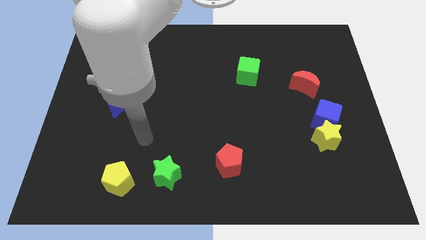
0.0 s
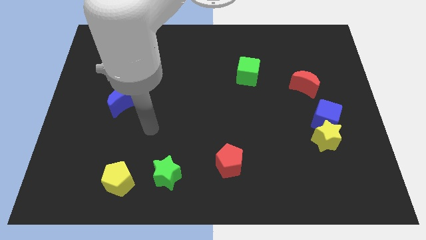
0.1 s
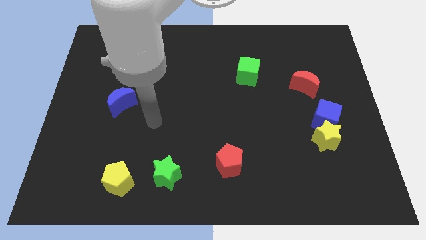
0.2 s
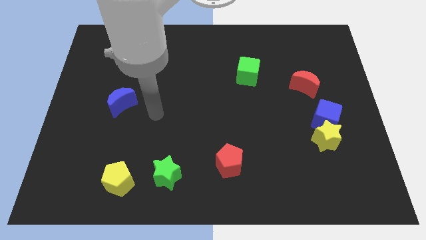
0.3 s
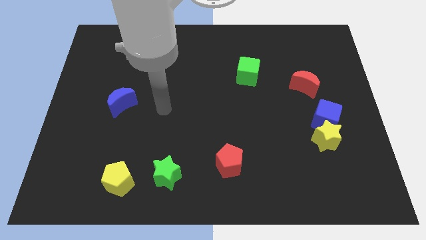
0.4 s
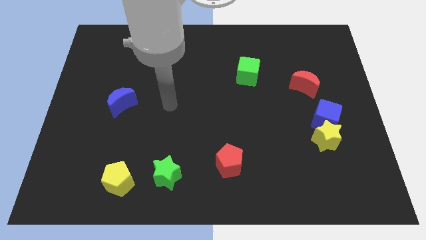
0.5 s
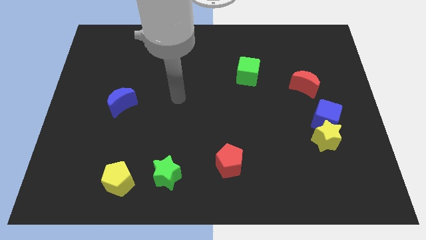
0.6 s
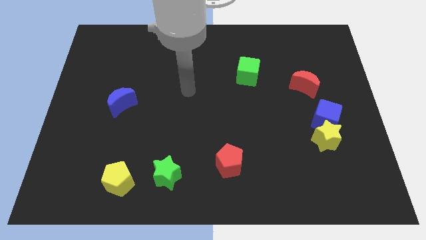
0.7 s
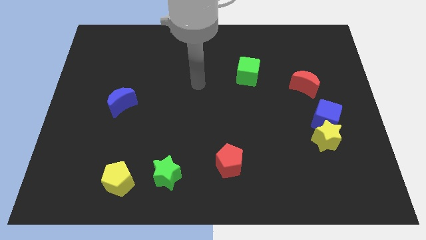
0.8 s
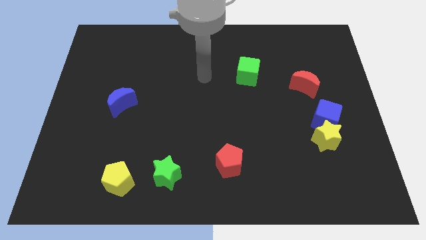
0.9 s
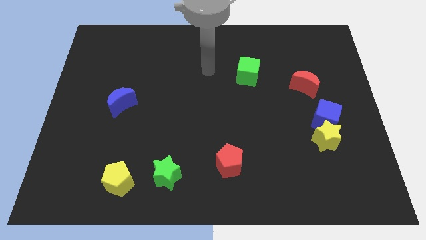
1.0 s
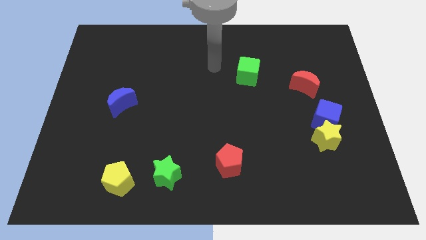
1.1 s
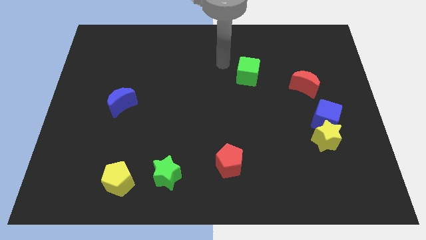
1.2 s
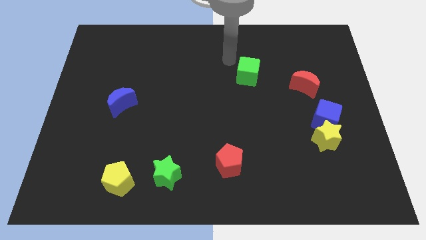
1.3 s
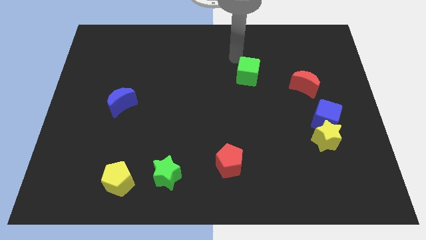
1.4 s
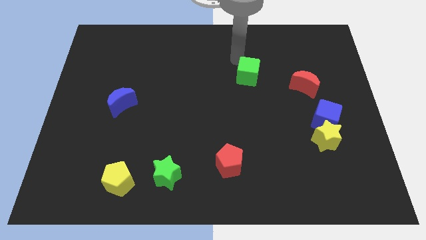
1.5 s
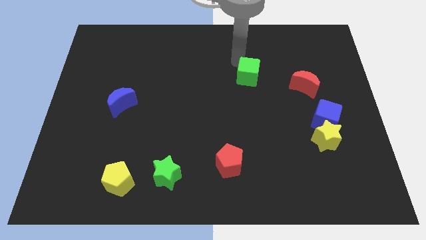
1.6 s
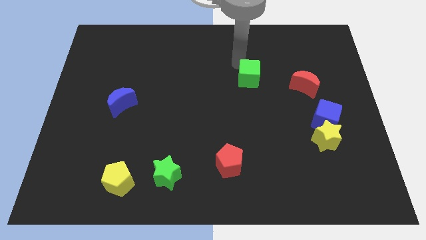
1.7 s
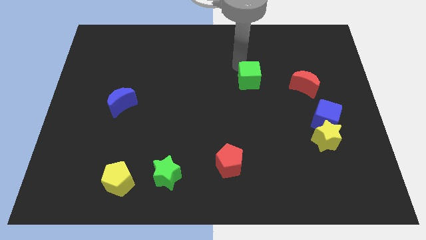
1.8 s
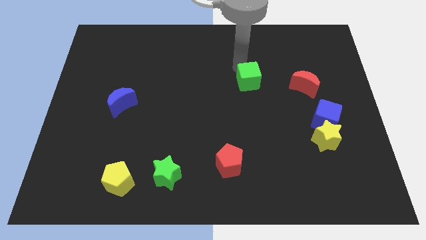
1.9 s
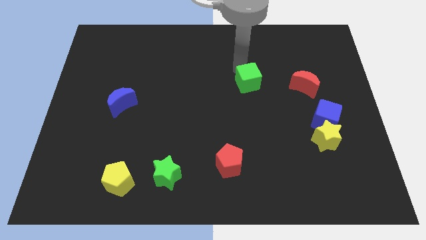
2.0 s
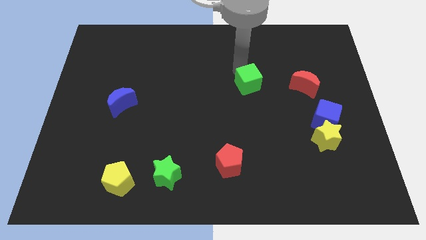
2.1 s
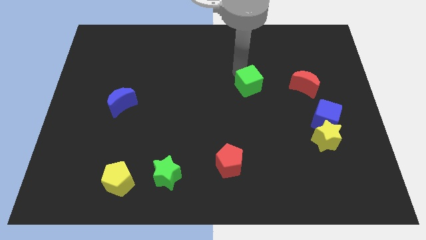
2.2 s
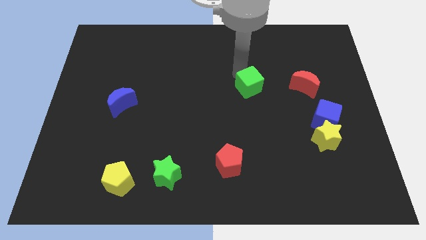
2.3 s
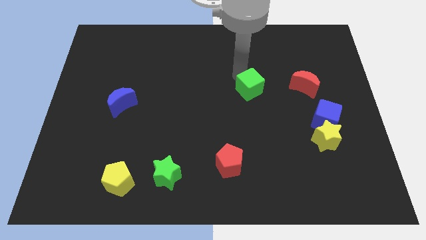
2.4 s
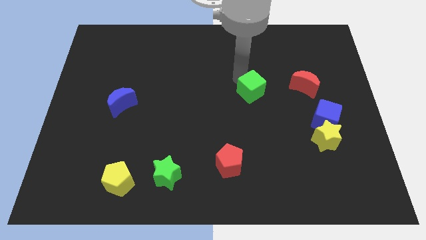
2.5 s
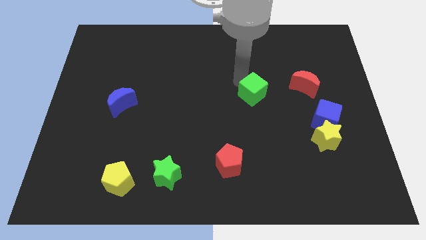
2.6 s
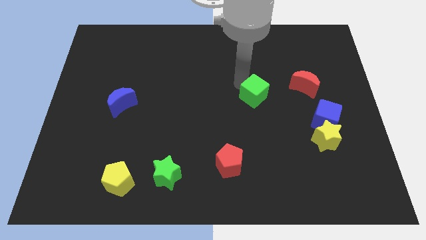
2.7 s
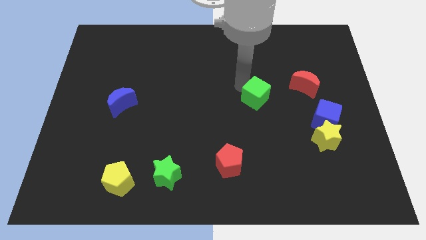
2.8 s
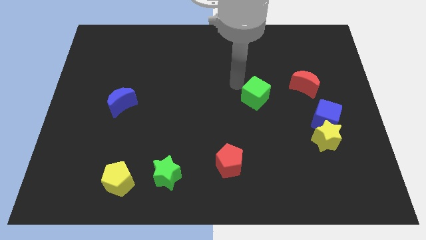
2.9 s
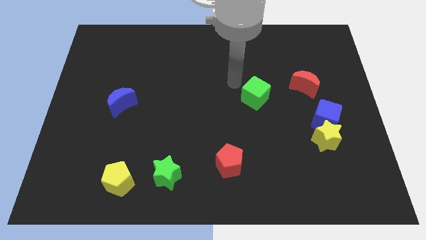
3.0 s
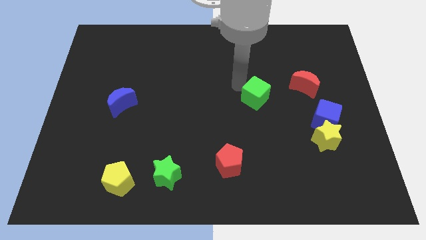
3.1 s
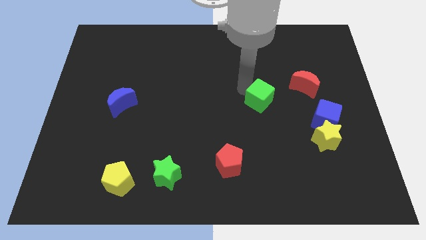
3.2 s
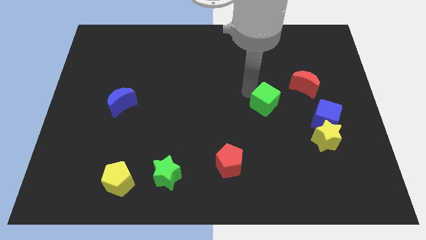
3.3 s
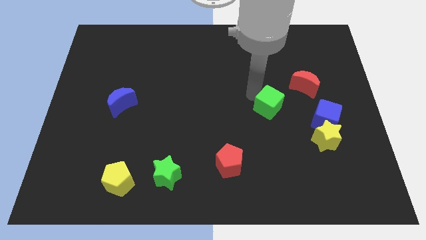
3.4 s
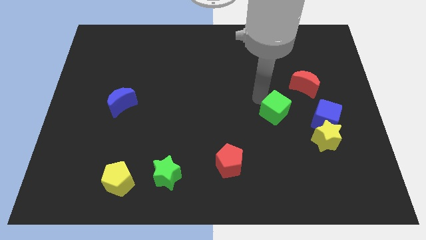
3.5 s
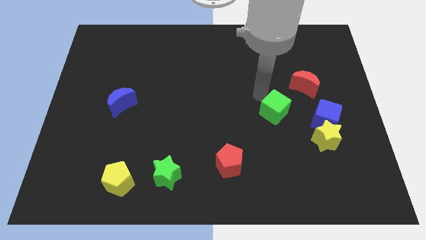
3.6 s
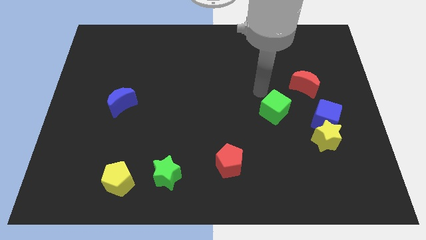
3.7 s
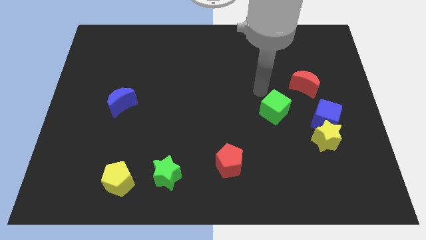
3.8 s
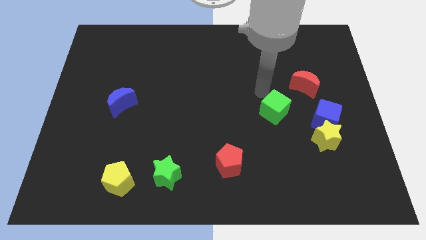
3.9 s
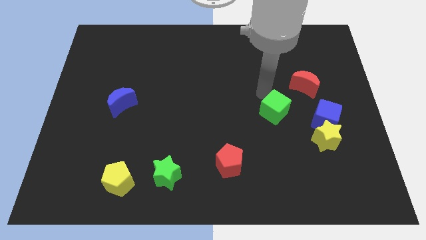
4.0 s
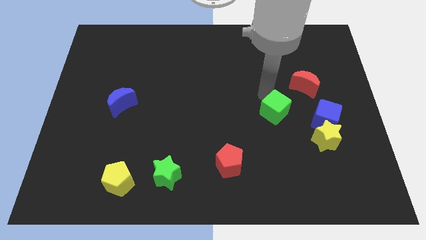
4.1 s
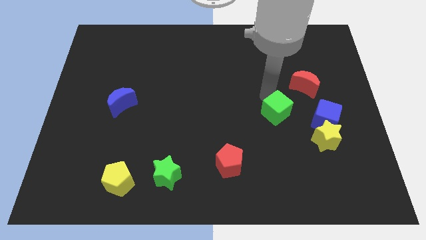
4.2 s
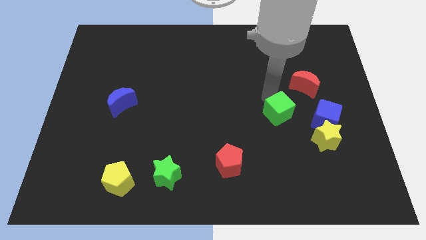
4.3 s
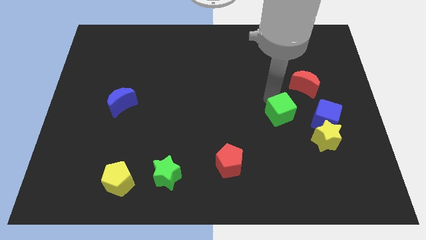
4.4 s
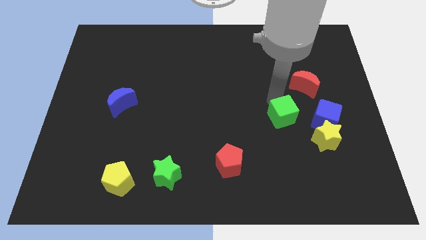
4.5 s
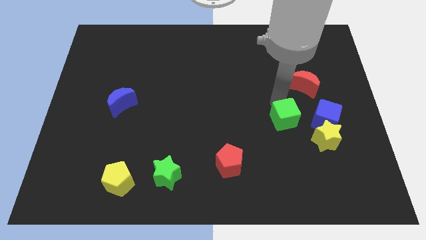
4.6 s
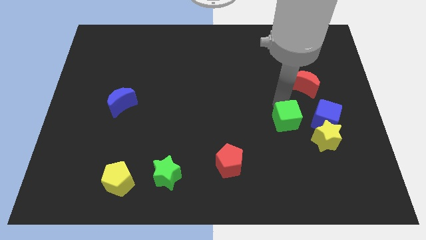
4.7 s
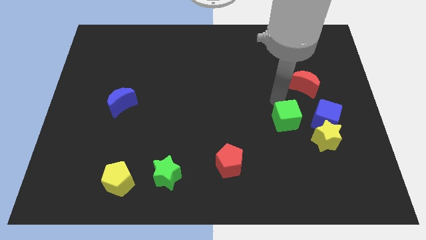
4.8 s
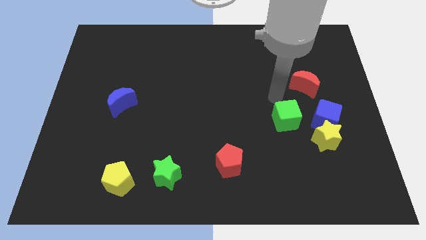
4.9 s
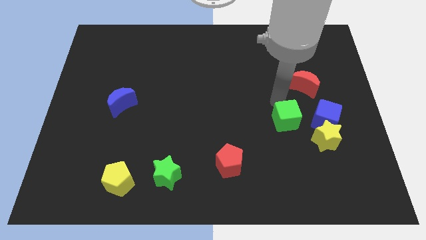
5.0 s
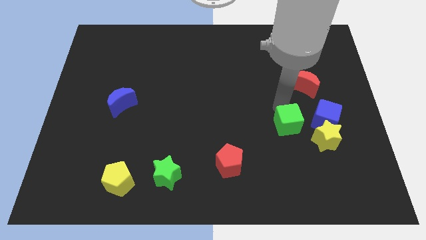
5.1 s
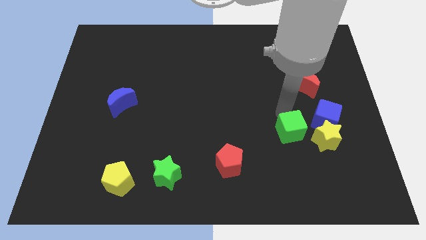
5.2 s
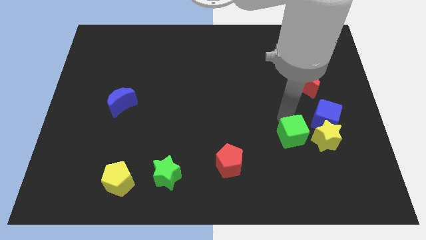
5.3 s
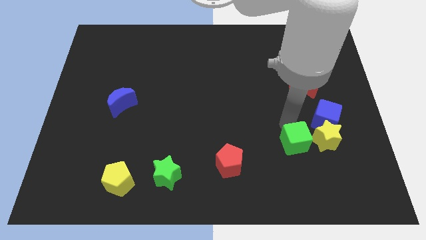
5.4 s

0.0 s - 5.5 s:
slide the green cube to the bottom left of the yellow star

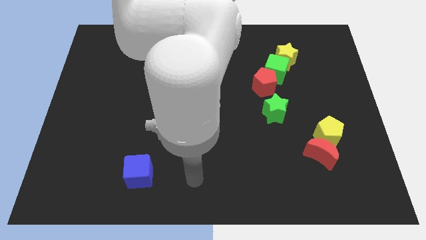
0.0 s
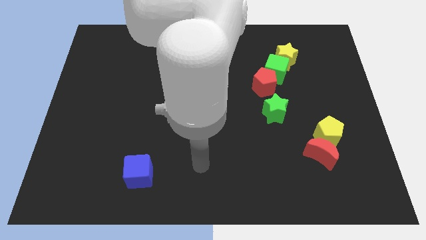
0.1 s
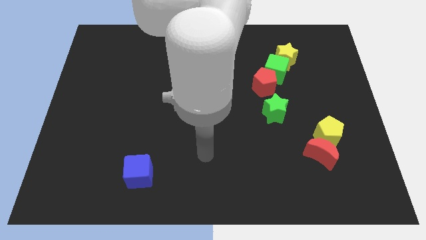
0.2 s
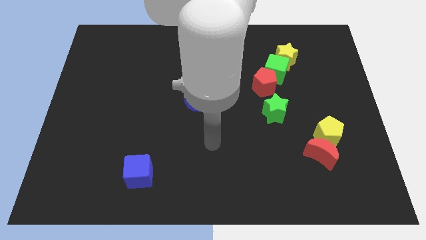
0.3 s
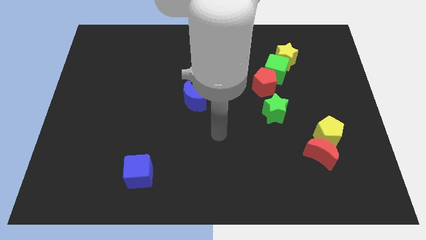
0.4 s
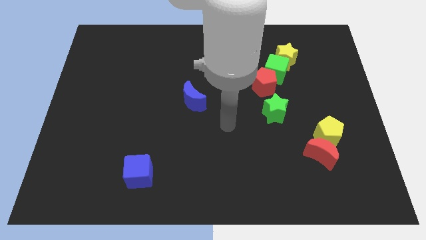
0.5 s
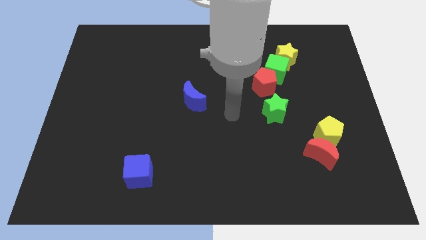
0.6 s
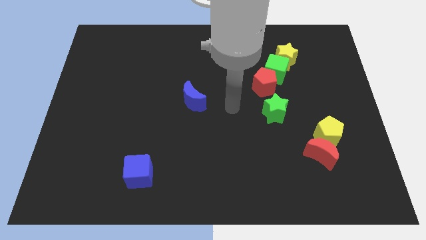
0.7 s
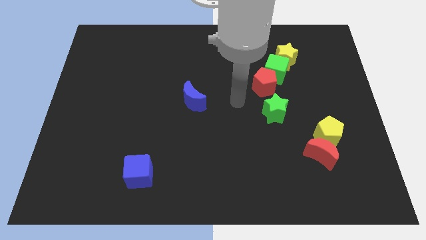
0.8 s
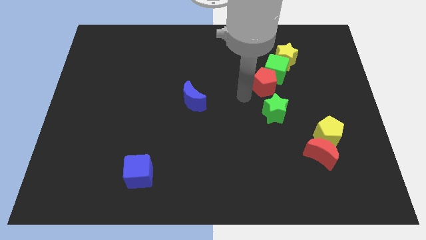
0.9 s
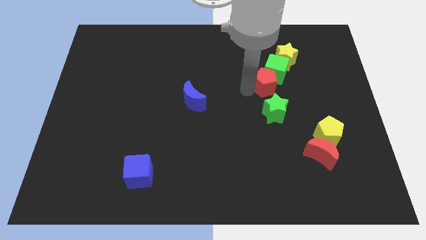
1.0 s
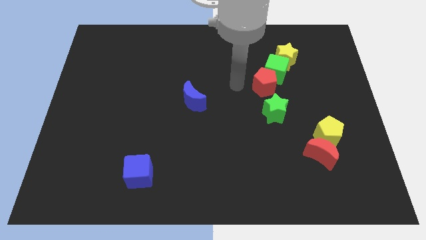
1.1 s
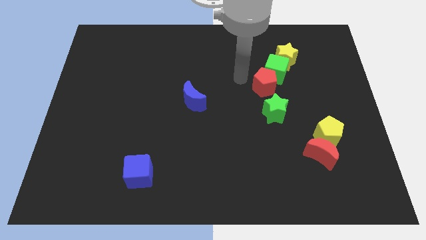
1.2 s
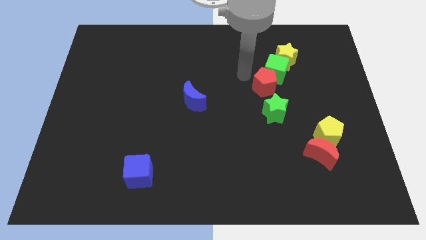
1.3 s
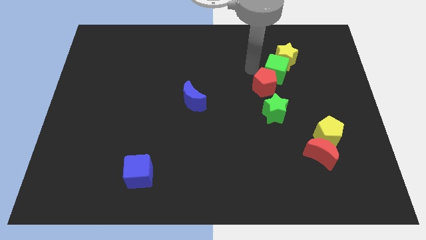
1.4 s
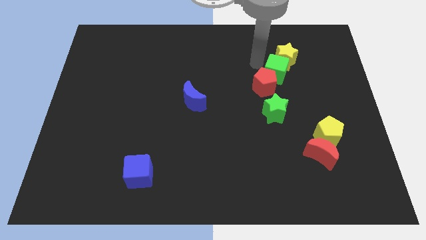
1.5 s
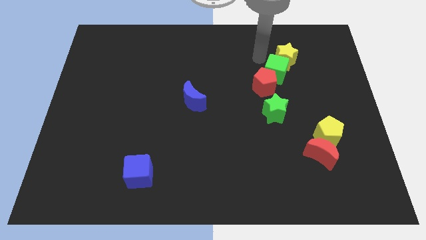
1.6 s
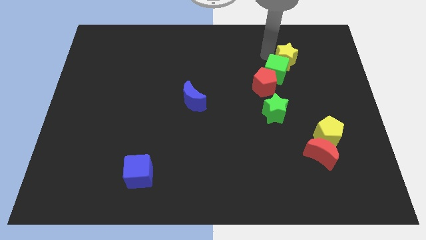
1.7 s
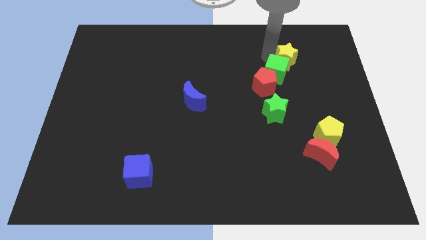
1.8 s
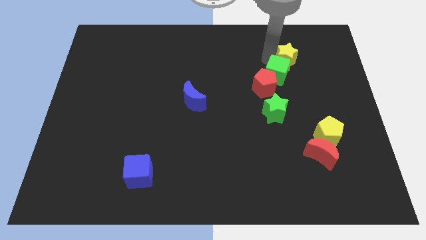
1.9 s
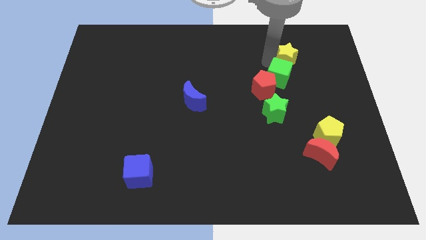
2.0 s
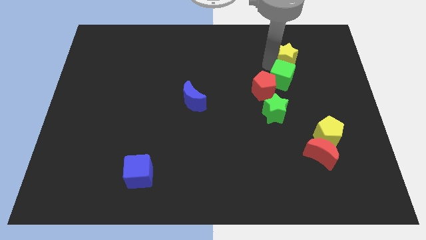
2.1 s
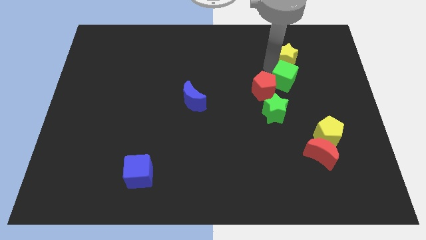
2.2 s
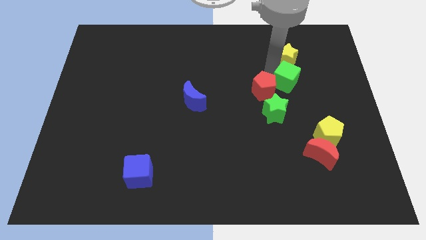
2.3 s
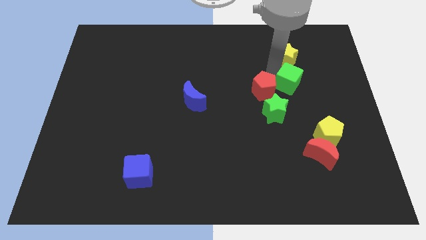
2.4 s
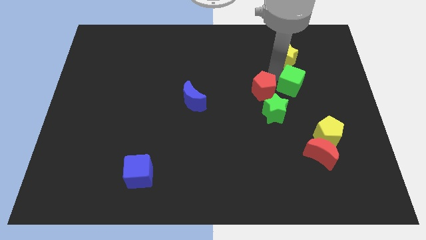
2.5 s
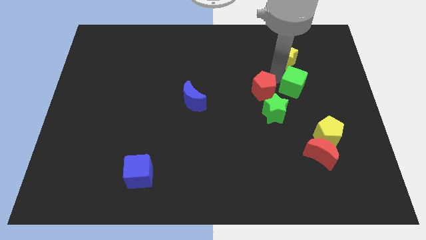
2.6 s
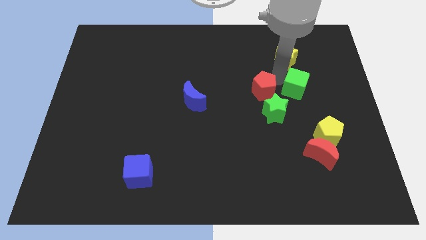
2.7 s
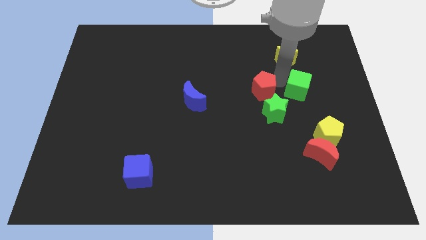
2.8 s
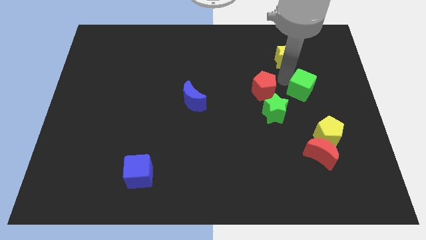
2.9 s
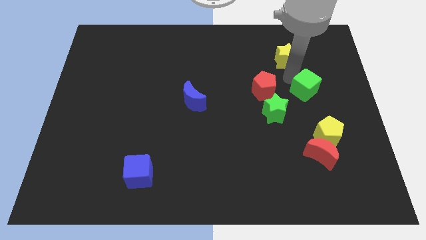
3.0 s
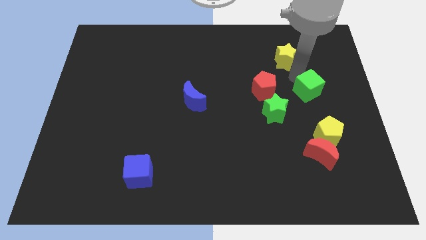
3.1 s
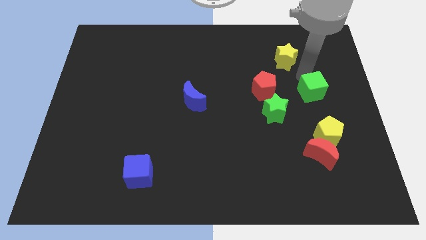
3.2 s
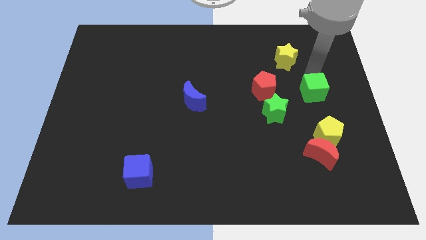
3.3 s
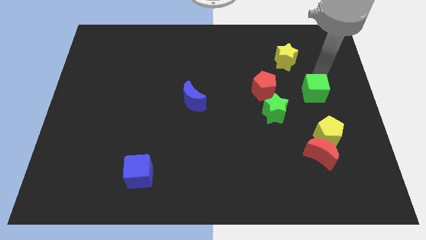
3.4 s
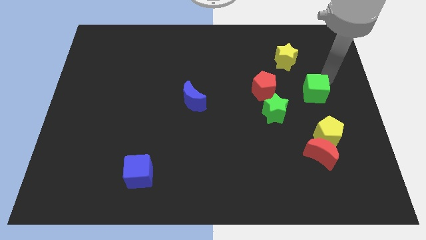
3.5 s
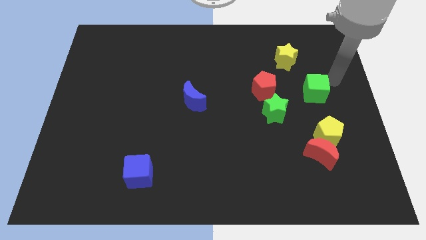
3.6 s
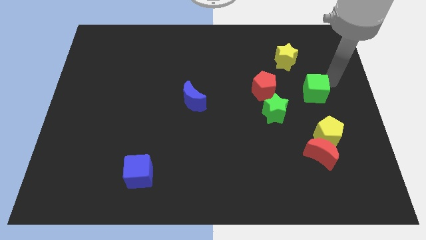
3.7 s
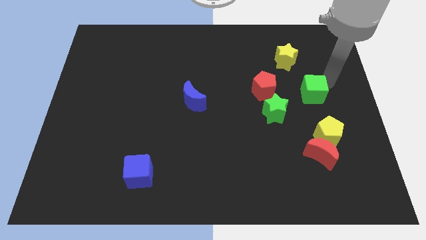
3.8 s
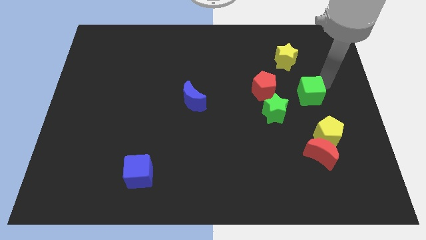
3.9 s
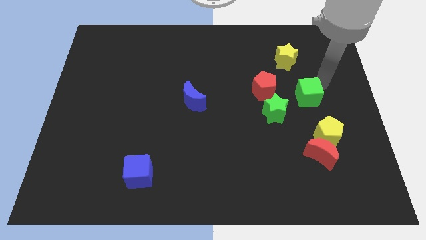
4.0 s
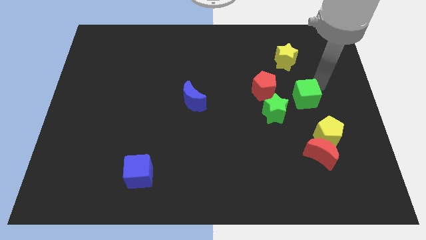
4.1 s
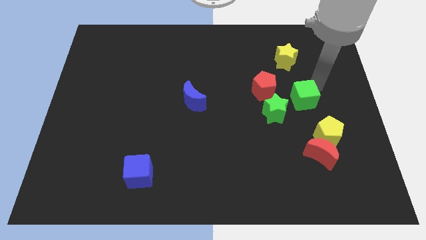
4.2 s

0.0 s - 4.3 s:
put the green cube to the bottom right of the red pentagon
